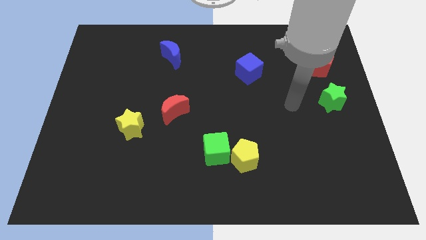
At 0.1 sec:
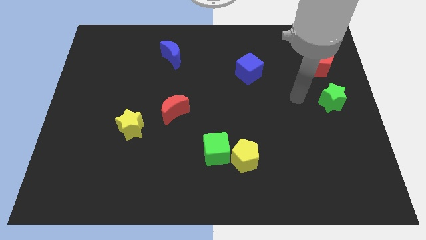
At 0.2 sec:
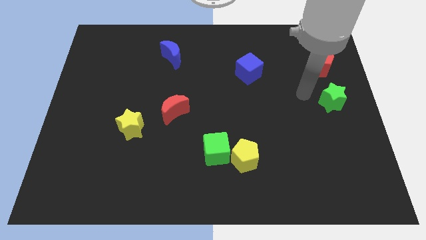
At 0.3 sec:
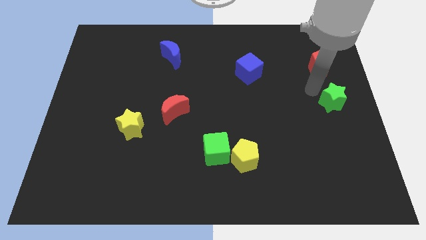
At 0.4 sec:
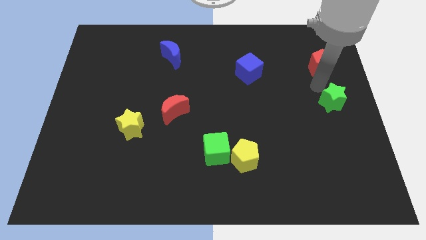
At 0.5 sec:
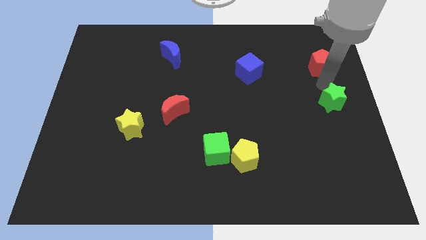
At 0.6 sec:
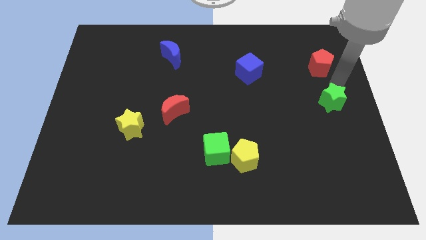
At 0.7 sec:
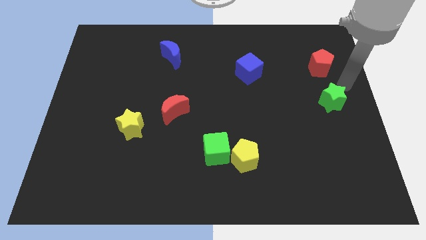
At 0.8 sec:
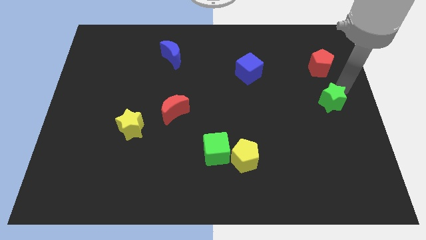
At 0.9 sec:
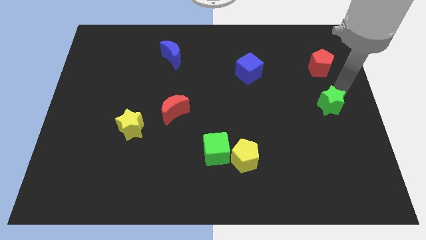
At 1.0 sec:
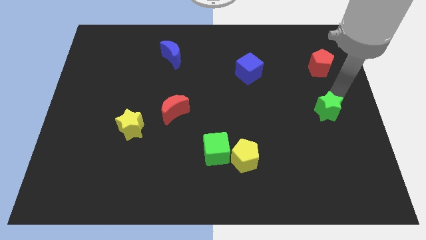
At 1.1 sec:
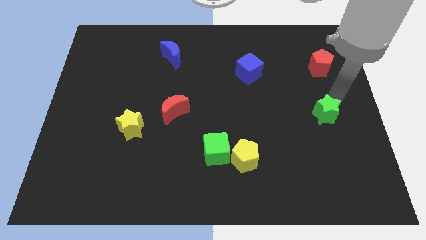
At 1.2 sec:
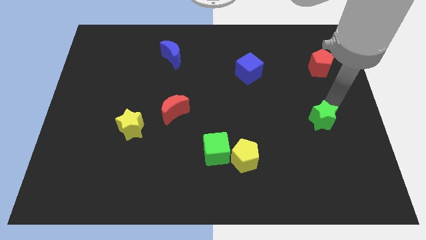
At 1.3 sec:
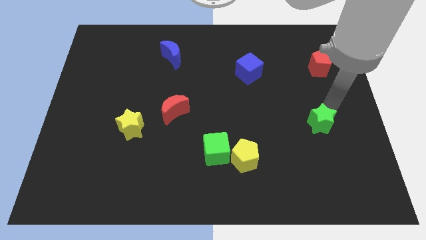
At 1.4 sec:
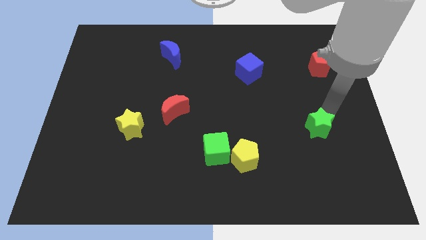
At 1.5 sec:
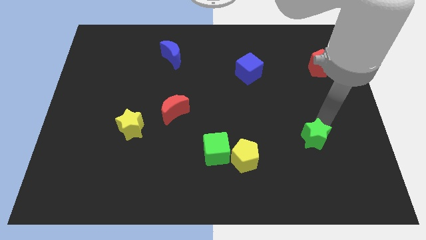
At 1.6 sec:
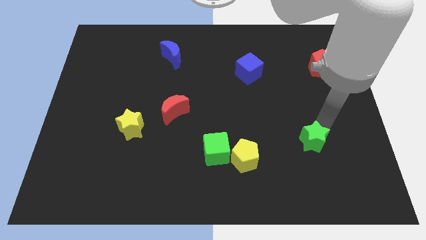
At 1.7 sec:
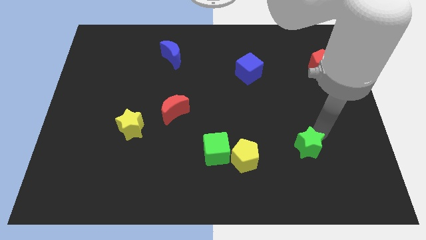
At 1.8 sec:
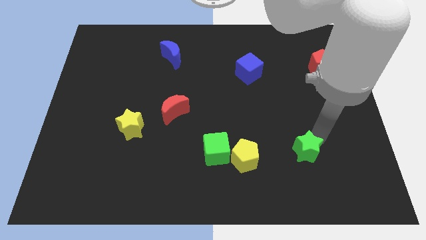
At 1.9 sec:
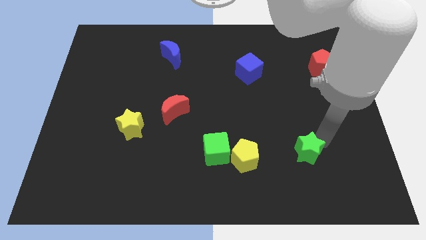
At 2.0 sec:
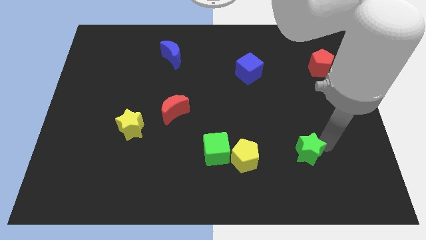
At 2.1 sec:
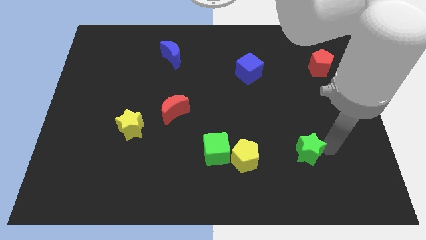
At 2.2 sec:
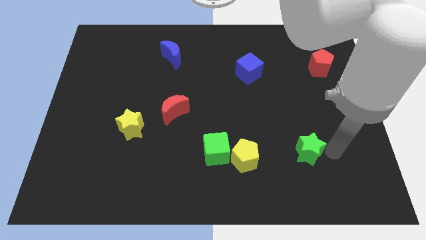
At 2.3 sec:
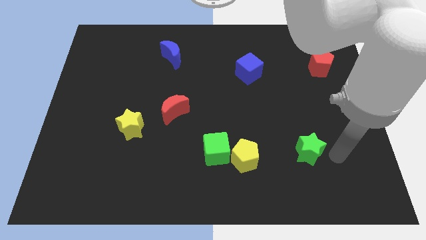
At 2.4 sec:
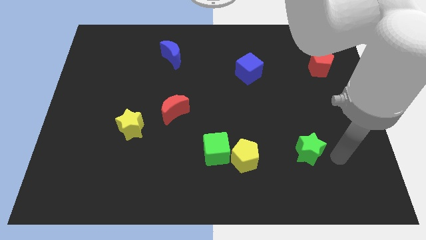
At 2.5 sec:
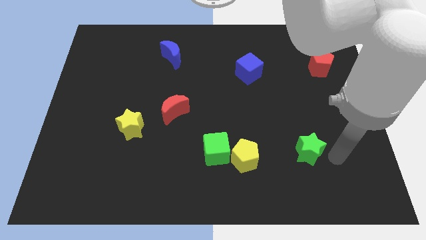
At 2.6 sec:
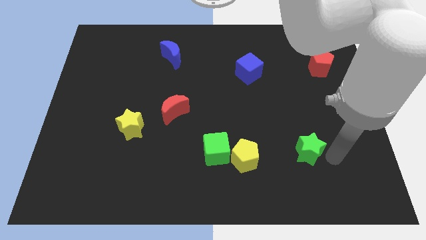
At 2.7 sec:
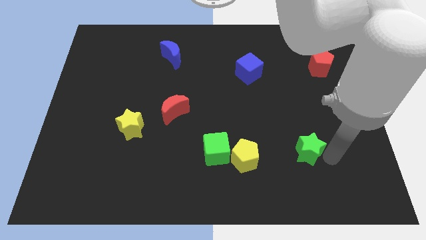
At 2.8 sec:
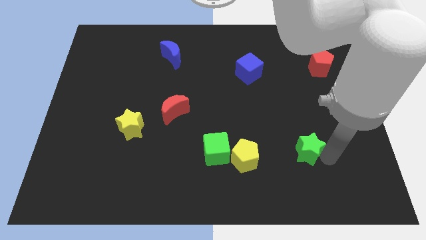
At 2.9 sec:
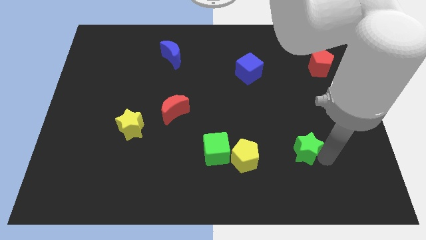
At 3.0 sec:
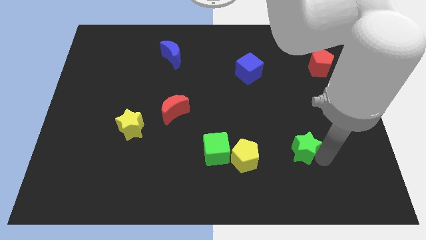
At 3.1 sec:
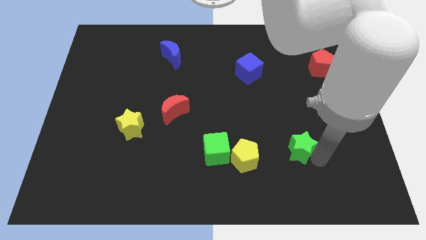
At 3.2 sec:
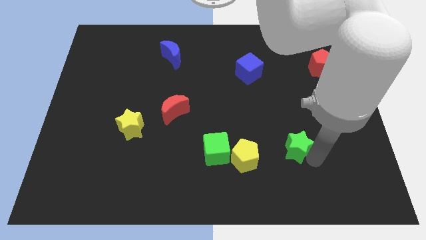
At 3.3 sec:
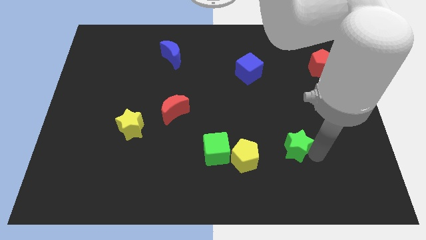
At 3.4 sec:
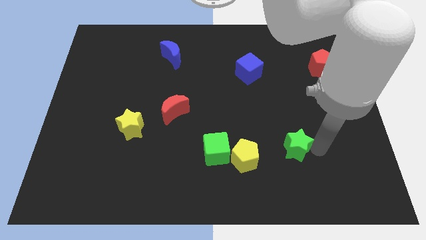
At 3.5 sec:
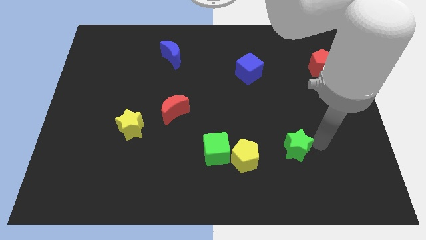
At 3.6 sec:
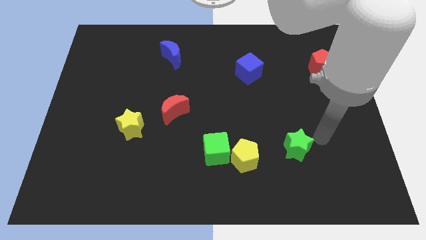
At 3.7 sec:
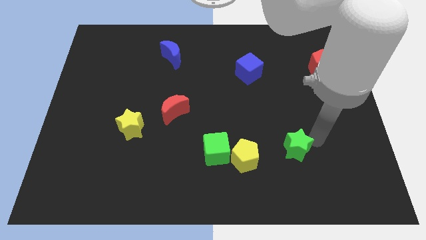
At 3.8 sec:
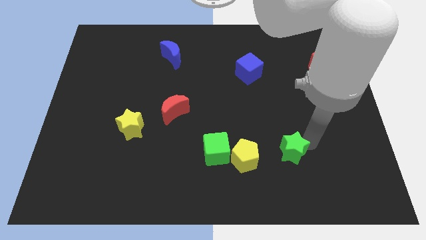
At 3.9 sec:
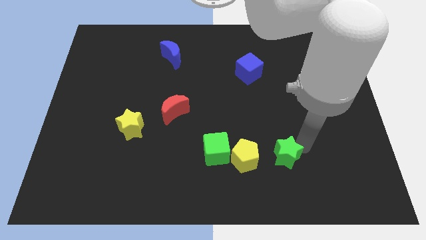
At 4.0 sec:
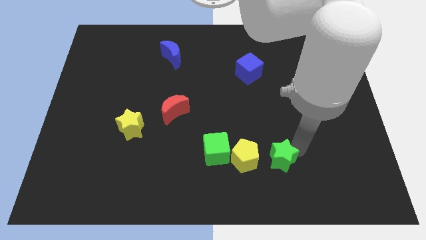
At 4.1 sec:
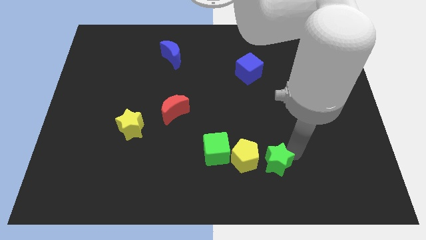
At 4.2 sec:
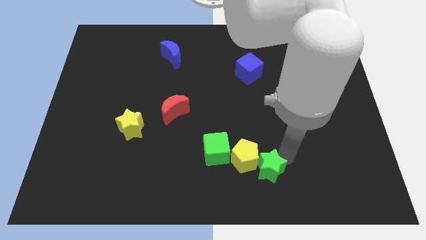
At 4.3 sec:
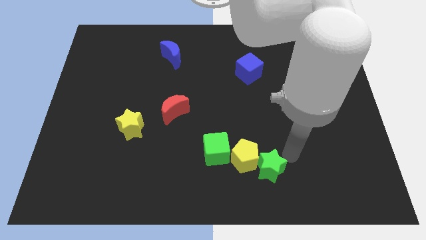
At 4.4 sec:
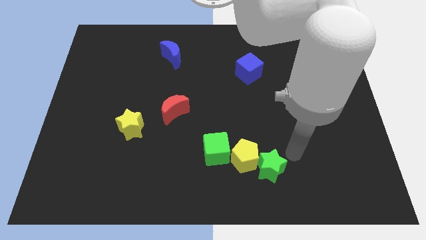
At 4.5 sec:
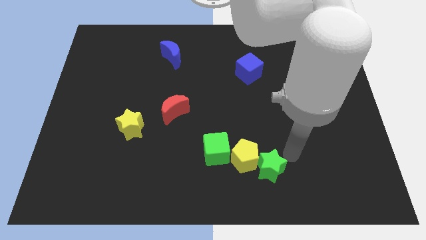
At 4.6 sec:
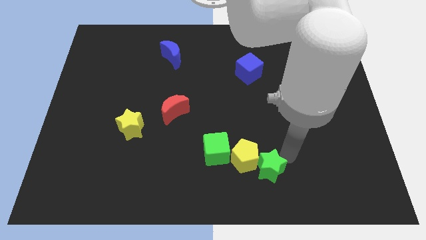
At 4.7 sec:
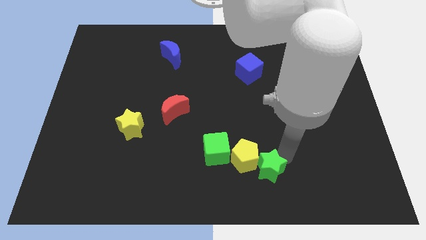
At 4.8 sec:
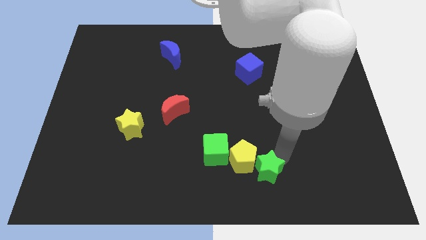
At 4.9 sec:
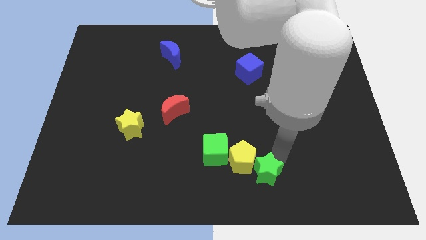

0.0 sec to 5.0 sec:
put the green star to the bottom

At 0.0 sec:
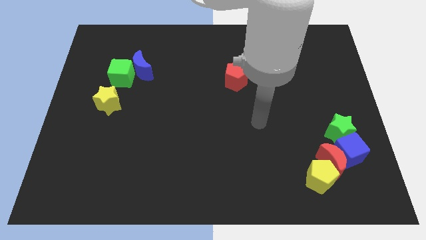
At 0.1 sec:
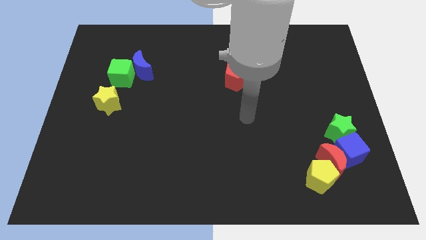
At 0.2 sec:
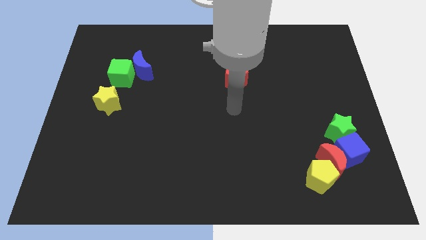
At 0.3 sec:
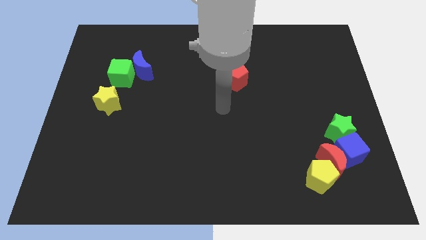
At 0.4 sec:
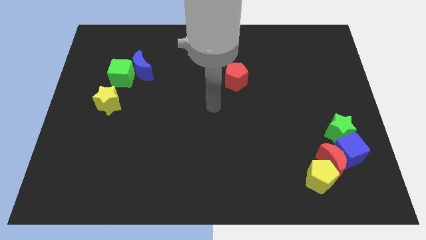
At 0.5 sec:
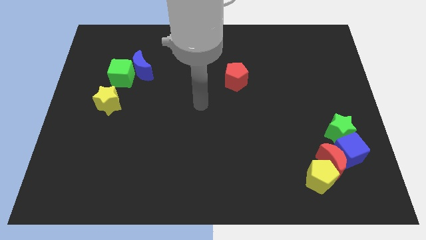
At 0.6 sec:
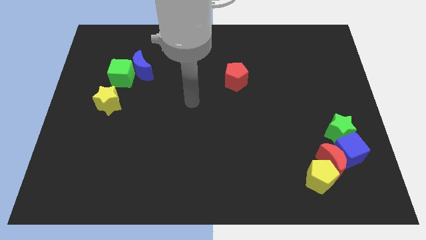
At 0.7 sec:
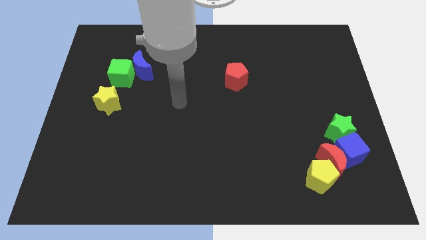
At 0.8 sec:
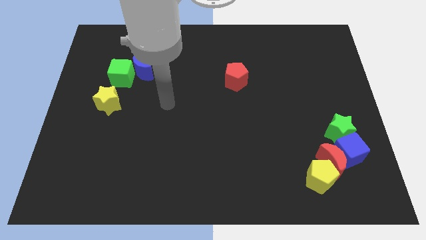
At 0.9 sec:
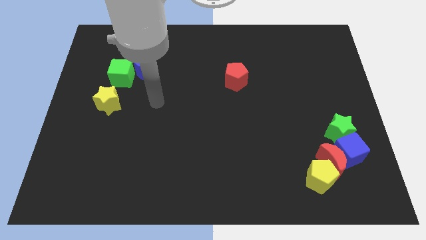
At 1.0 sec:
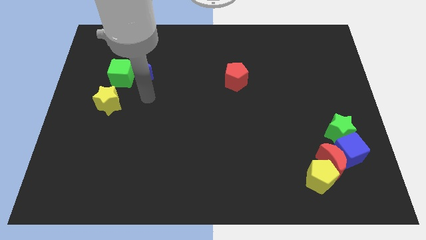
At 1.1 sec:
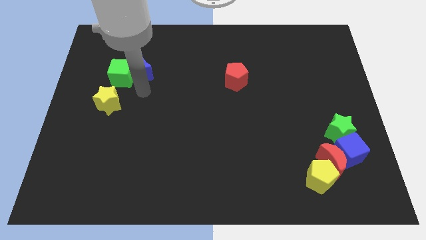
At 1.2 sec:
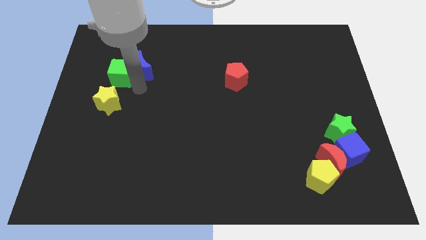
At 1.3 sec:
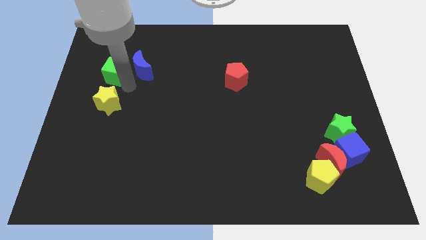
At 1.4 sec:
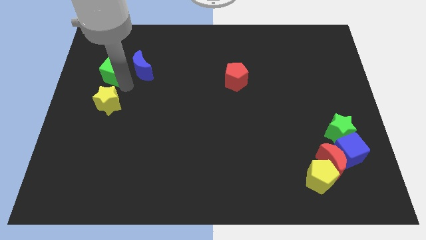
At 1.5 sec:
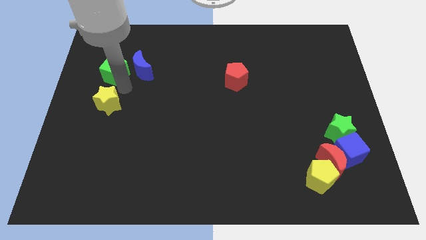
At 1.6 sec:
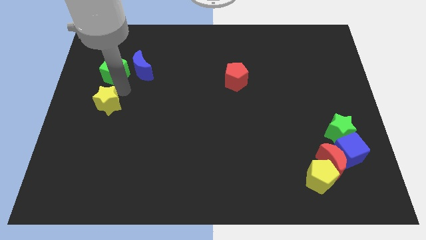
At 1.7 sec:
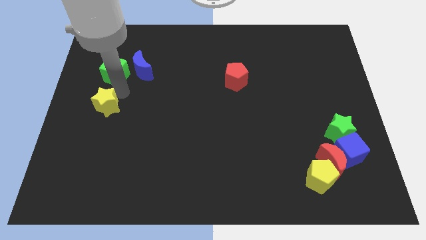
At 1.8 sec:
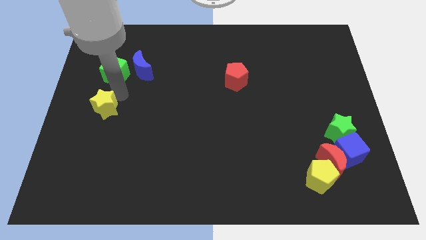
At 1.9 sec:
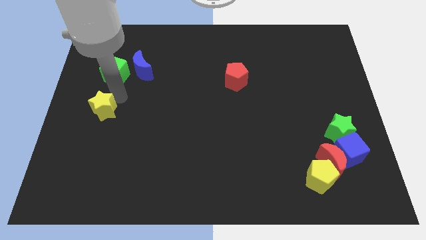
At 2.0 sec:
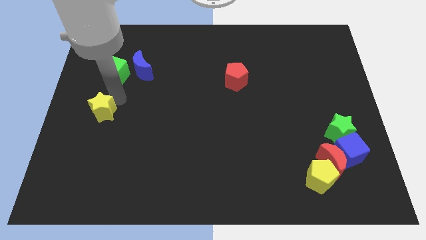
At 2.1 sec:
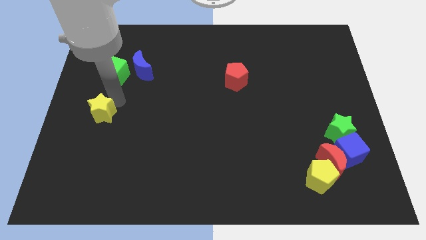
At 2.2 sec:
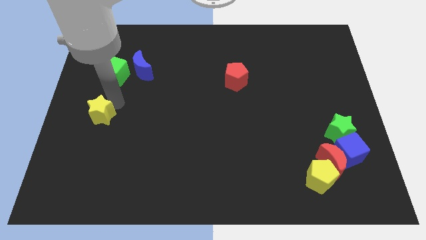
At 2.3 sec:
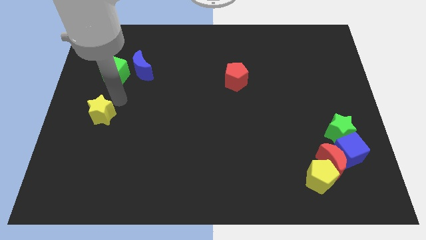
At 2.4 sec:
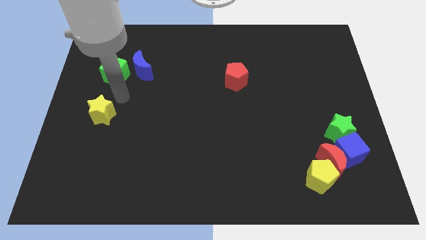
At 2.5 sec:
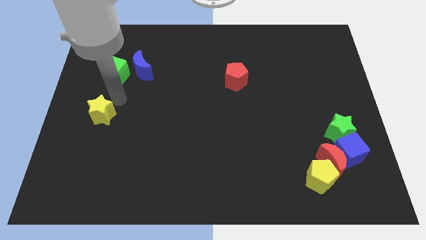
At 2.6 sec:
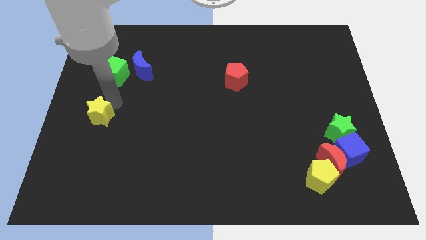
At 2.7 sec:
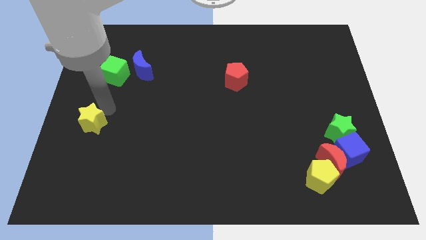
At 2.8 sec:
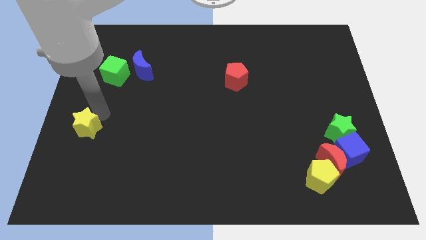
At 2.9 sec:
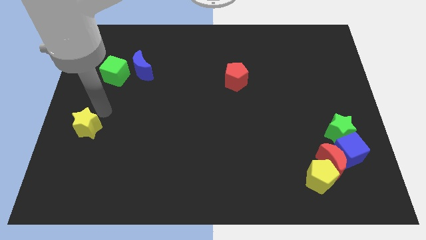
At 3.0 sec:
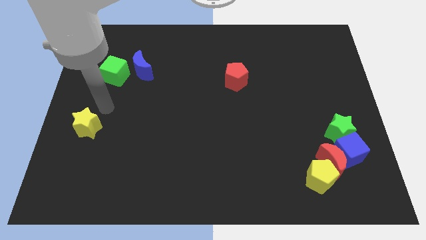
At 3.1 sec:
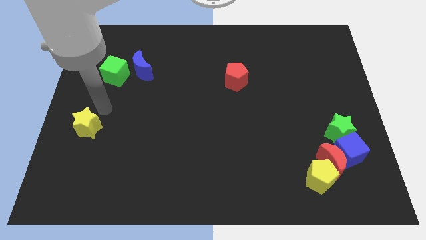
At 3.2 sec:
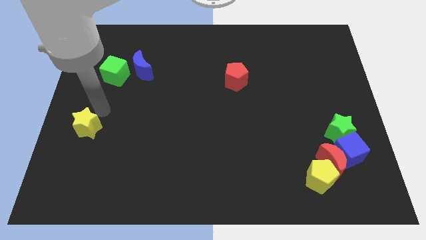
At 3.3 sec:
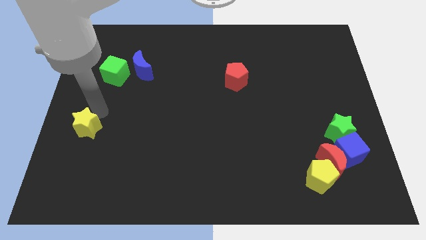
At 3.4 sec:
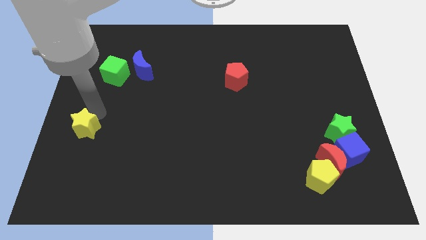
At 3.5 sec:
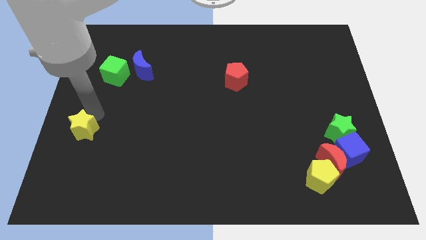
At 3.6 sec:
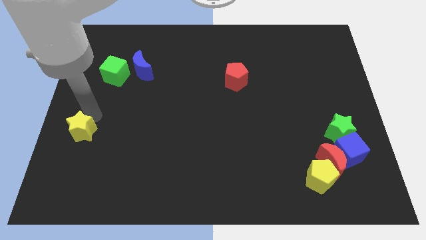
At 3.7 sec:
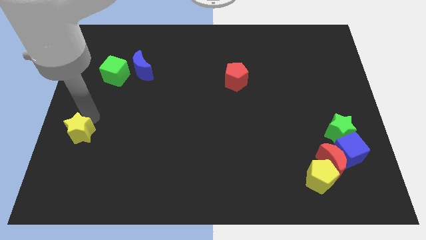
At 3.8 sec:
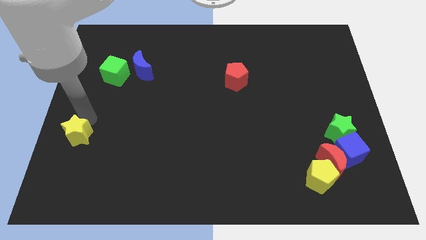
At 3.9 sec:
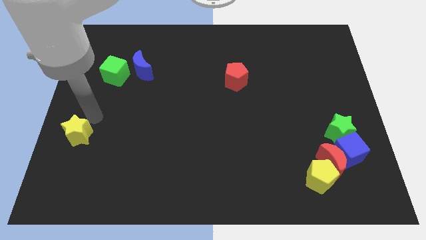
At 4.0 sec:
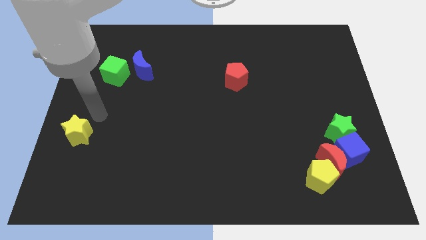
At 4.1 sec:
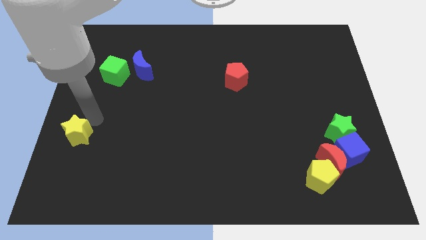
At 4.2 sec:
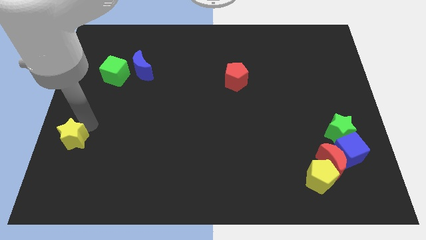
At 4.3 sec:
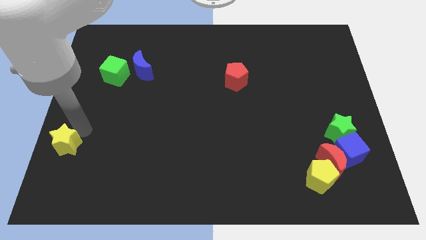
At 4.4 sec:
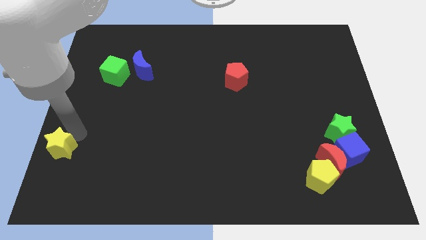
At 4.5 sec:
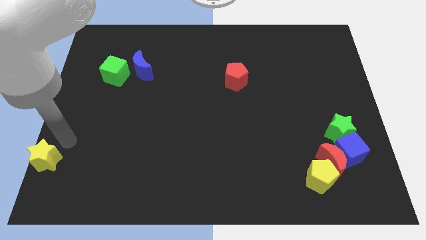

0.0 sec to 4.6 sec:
put the yellow star to the bottom left of the board
